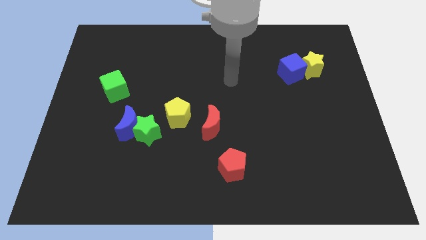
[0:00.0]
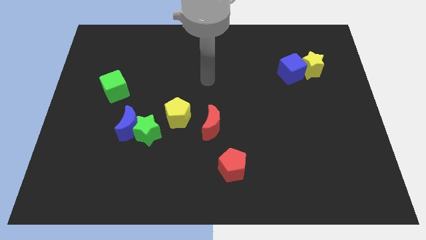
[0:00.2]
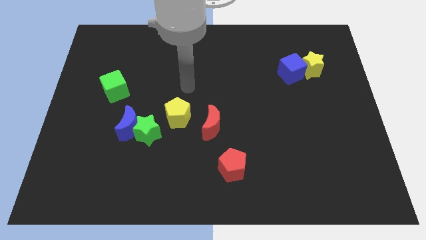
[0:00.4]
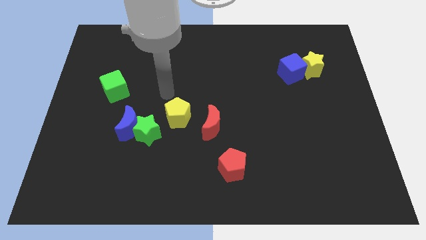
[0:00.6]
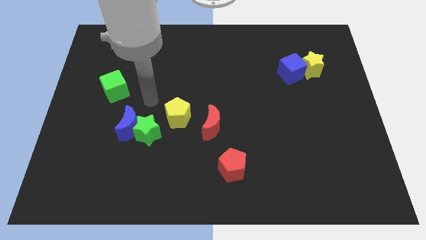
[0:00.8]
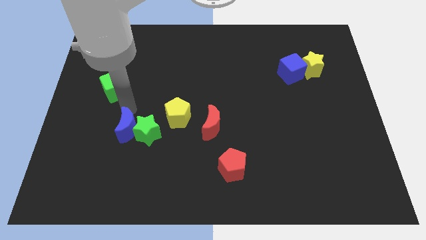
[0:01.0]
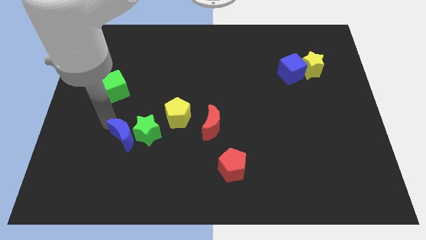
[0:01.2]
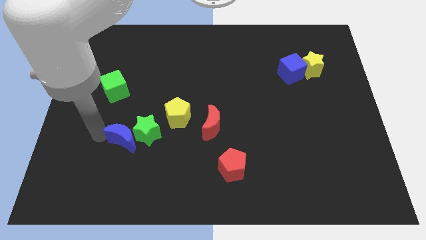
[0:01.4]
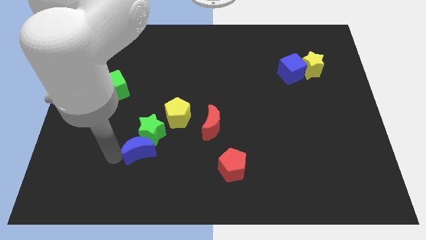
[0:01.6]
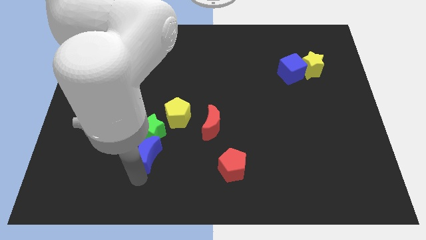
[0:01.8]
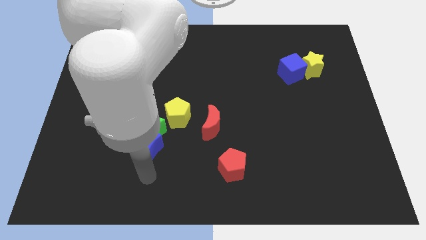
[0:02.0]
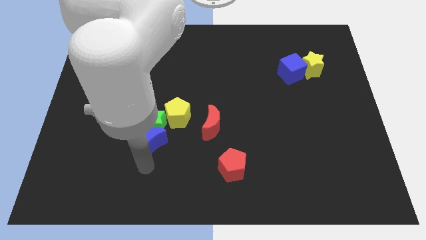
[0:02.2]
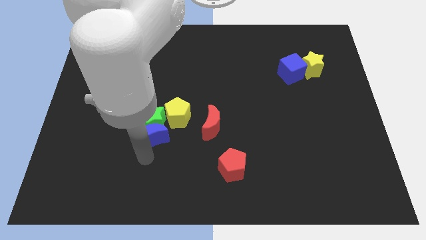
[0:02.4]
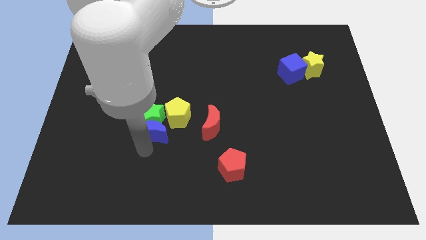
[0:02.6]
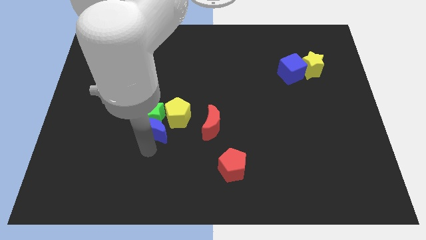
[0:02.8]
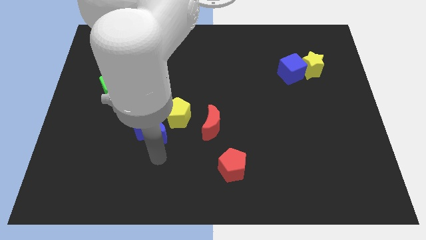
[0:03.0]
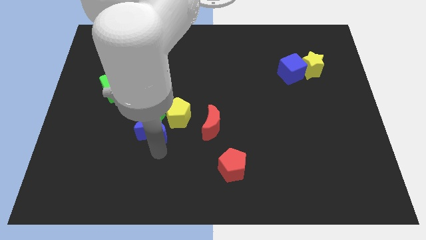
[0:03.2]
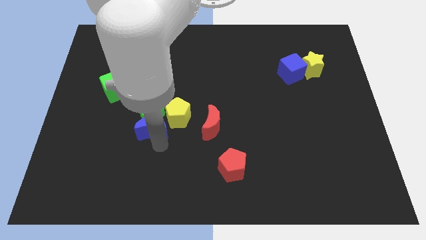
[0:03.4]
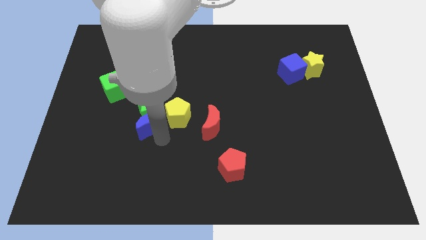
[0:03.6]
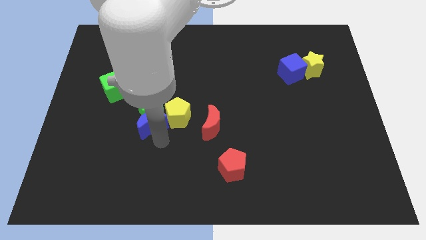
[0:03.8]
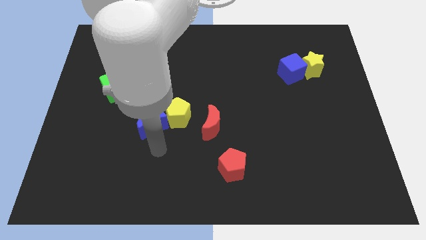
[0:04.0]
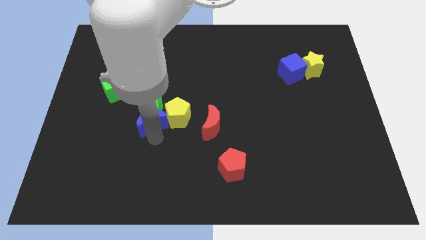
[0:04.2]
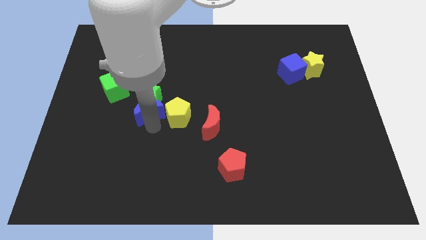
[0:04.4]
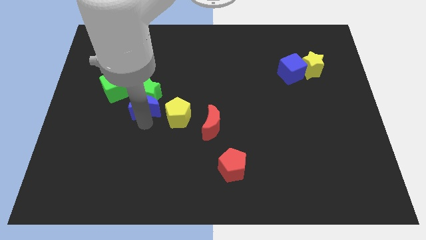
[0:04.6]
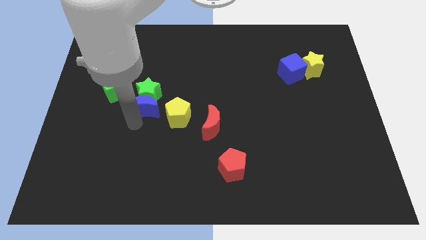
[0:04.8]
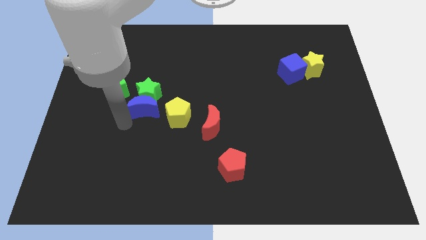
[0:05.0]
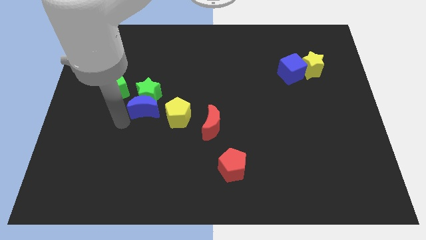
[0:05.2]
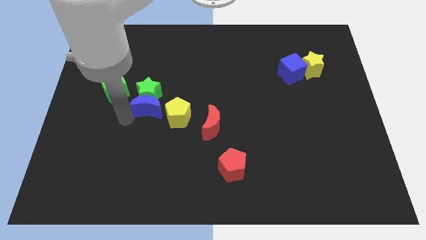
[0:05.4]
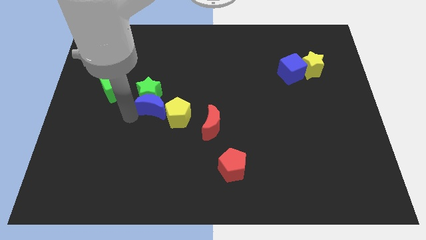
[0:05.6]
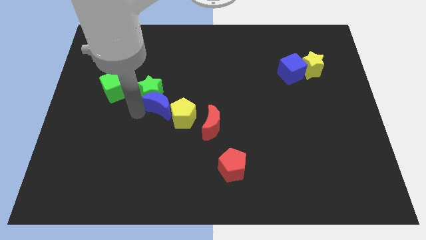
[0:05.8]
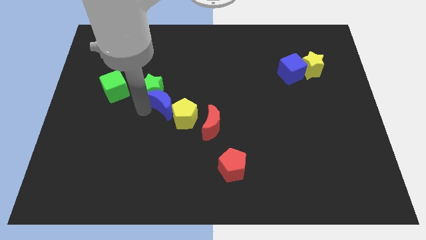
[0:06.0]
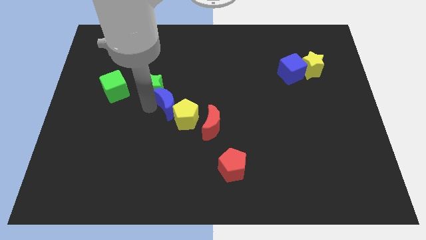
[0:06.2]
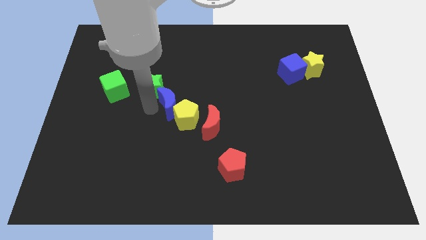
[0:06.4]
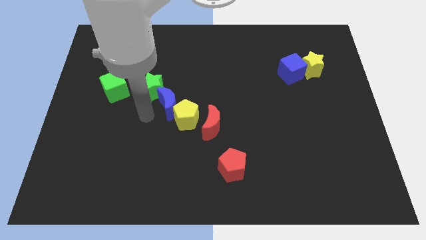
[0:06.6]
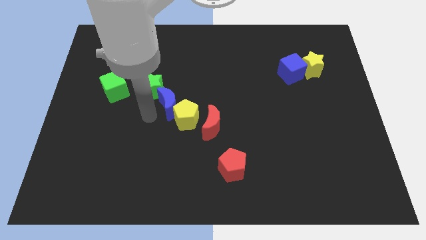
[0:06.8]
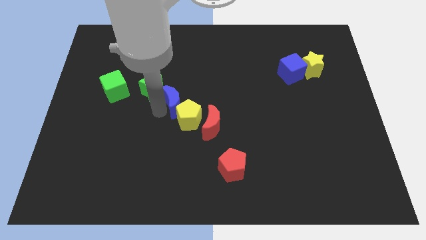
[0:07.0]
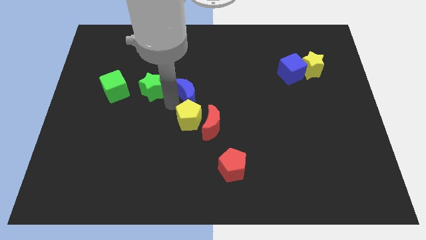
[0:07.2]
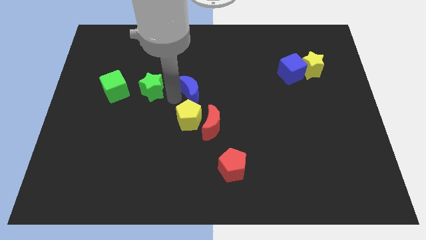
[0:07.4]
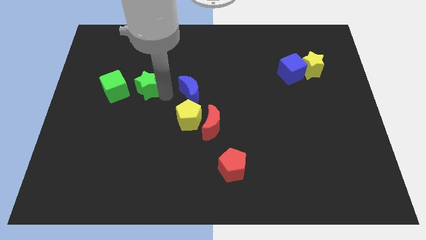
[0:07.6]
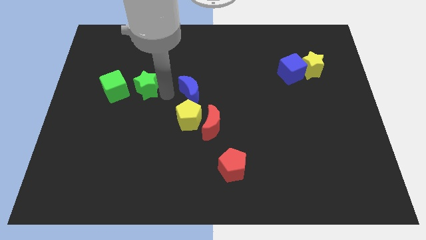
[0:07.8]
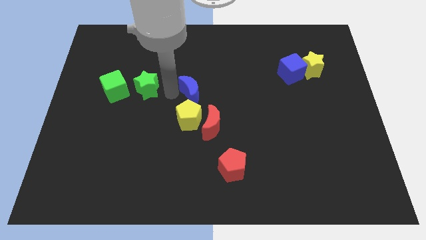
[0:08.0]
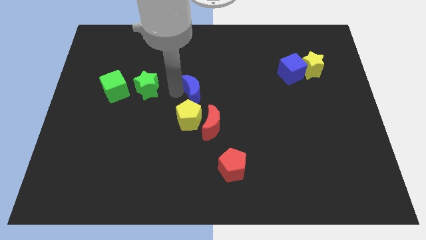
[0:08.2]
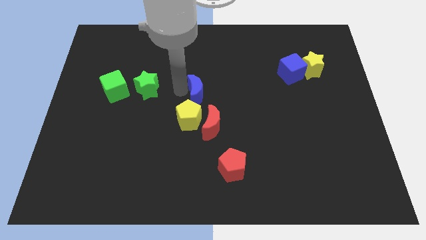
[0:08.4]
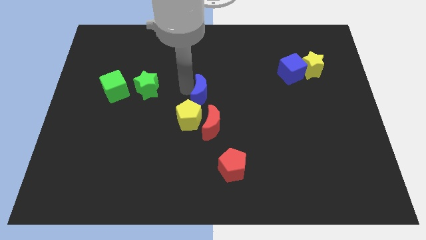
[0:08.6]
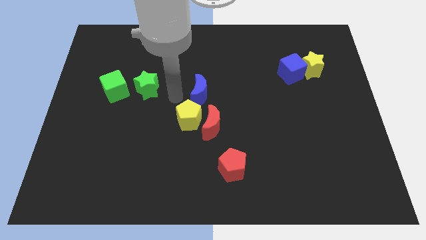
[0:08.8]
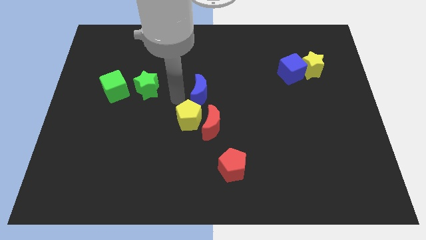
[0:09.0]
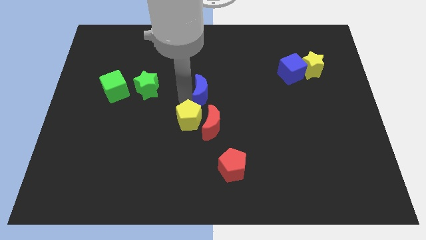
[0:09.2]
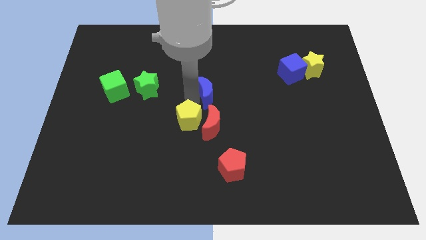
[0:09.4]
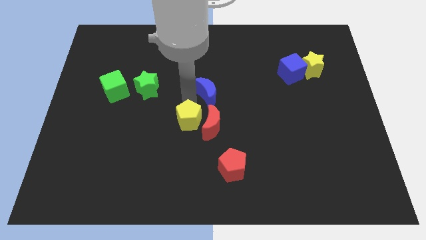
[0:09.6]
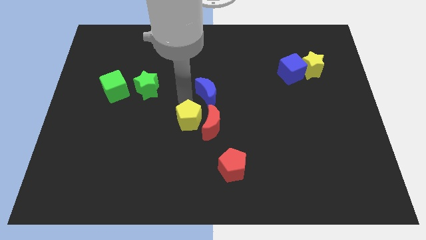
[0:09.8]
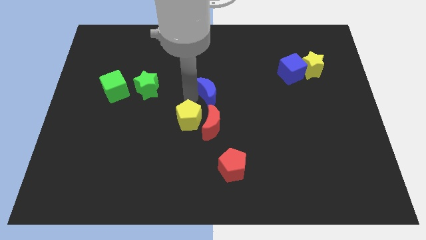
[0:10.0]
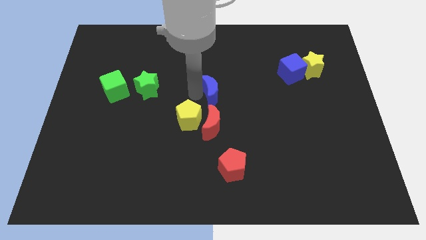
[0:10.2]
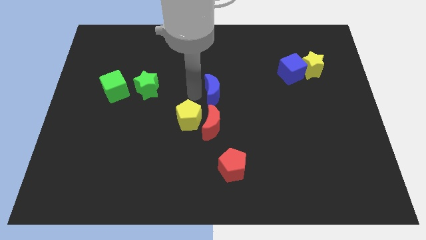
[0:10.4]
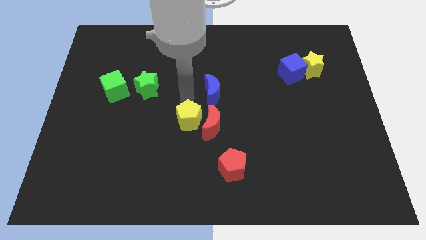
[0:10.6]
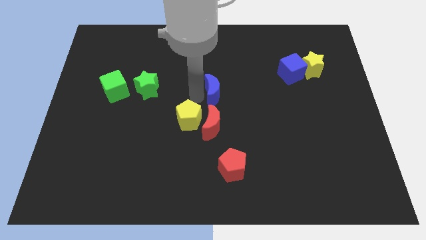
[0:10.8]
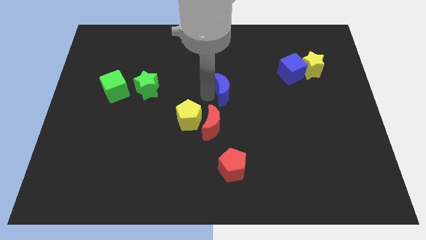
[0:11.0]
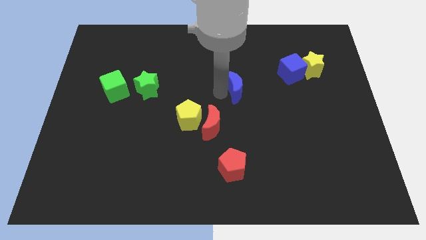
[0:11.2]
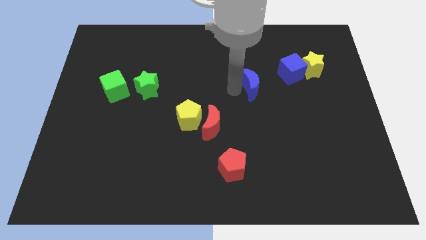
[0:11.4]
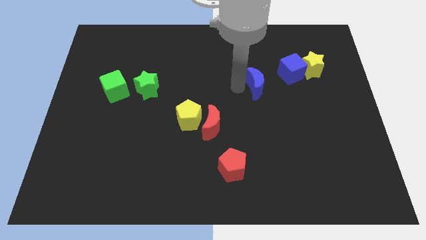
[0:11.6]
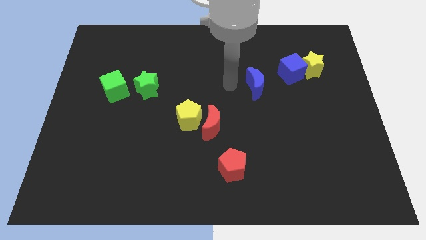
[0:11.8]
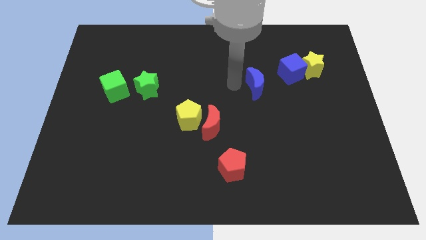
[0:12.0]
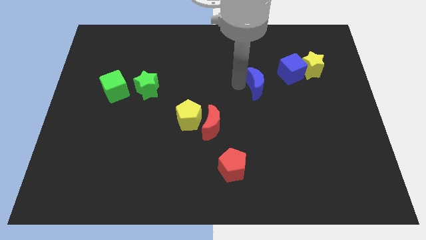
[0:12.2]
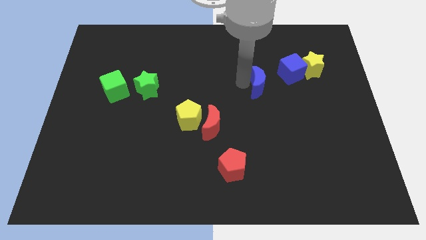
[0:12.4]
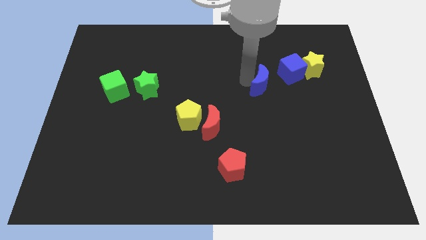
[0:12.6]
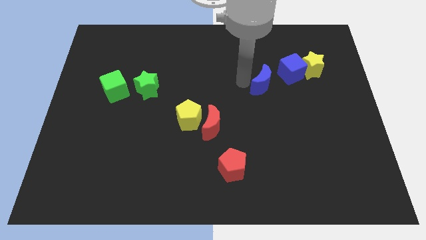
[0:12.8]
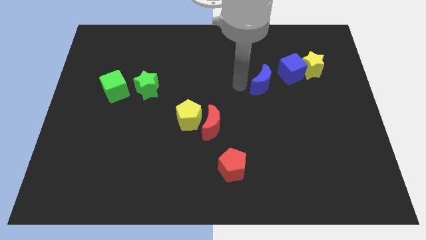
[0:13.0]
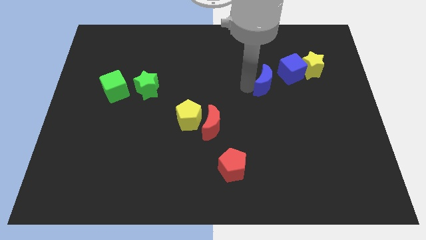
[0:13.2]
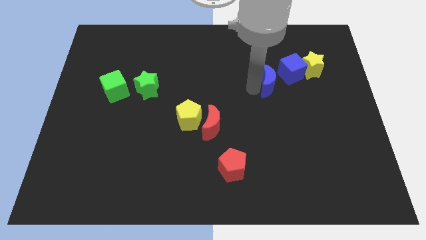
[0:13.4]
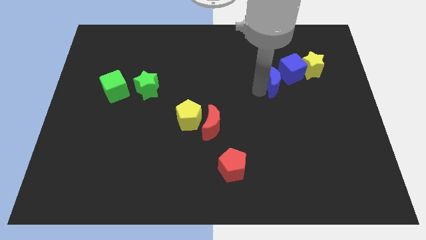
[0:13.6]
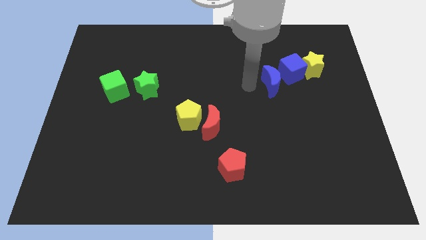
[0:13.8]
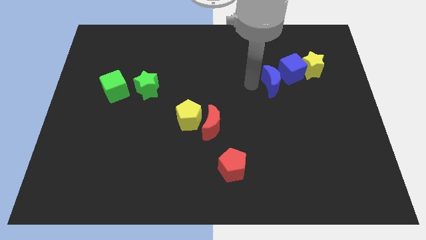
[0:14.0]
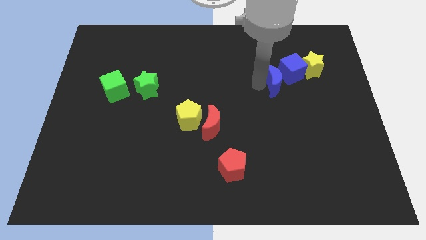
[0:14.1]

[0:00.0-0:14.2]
move the blue moon to the bottom left of the yellow star
